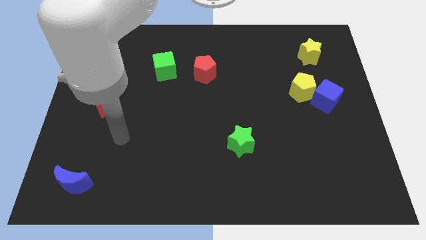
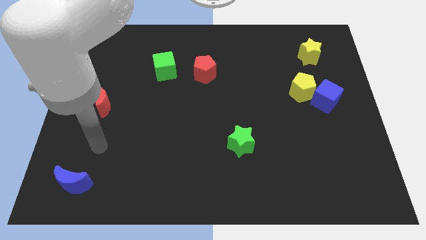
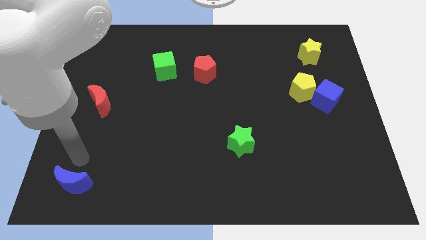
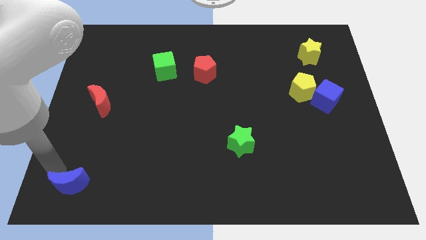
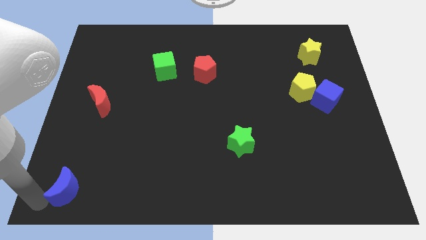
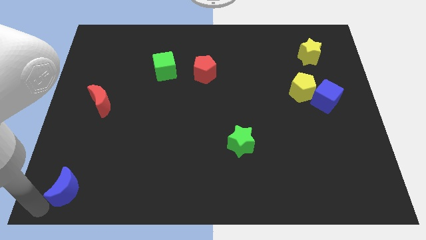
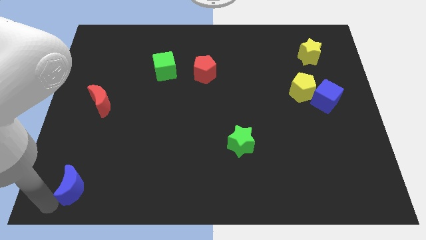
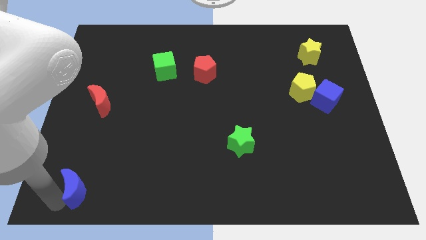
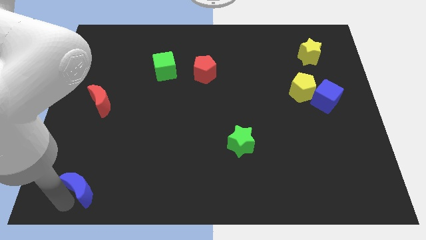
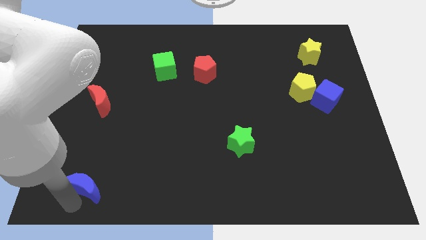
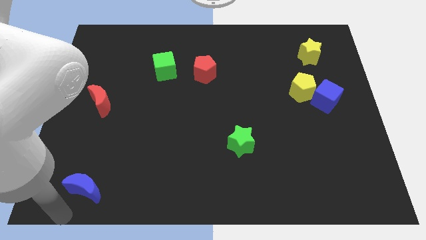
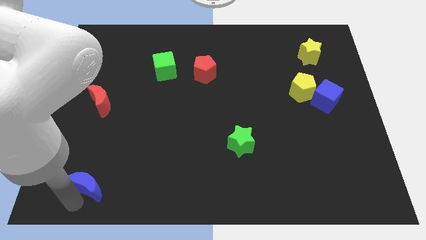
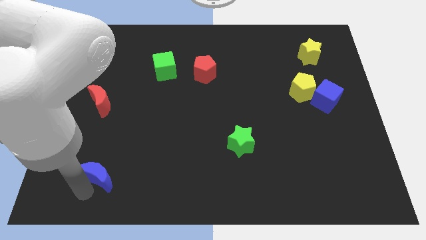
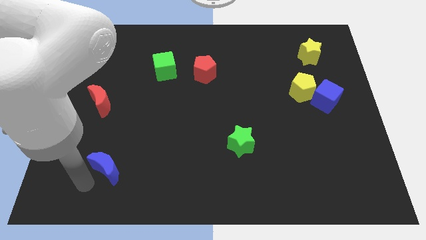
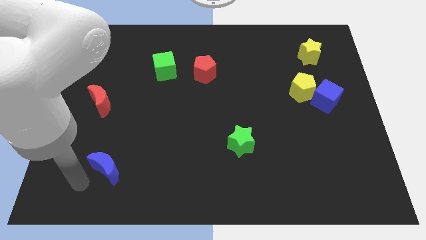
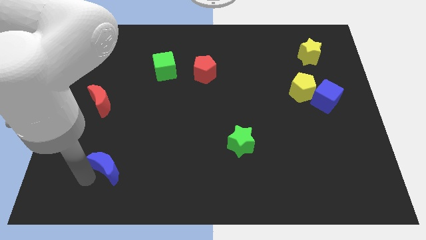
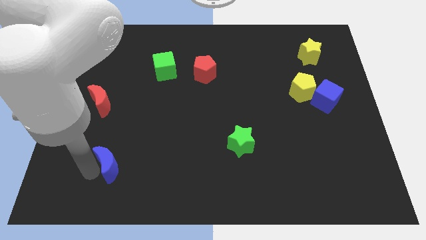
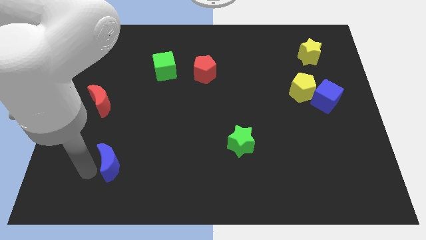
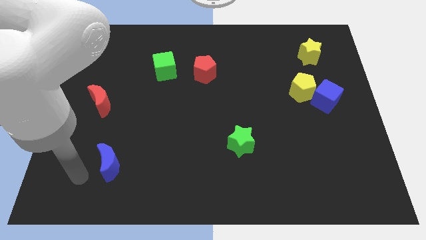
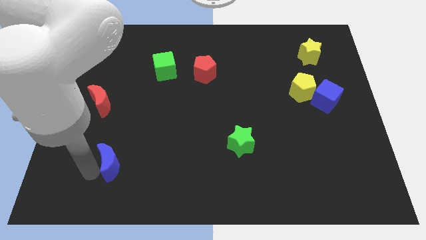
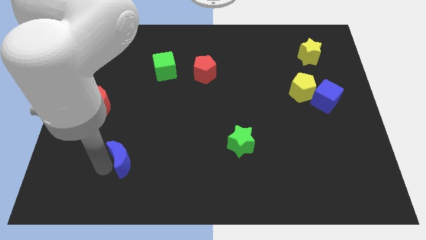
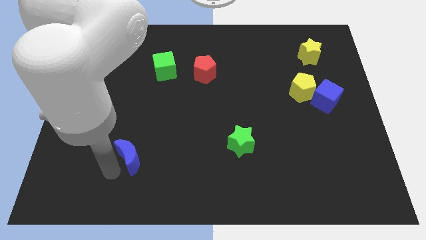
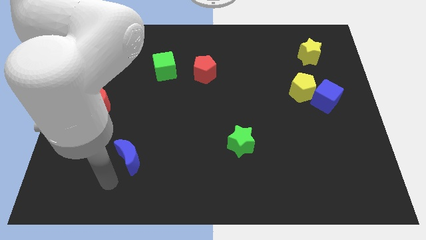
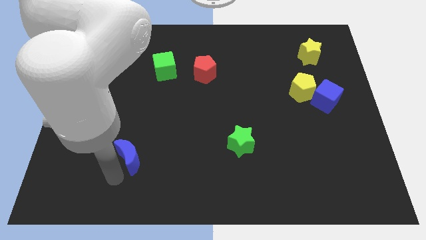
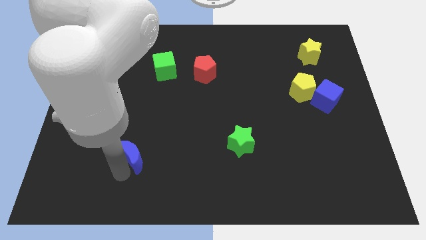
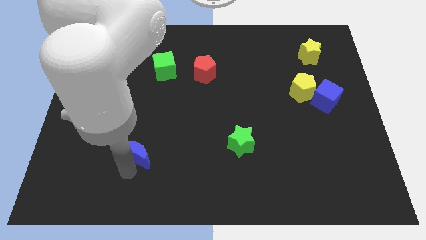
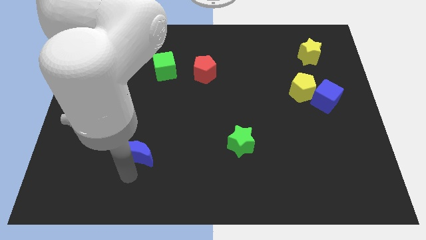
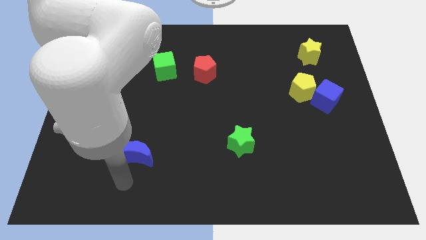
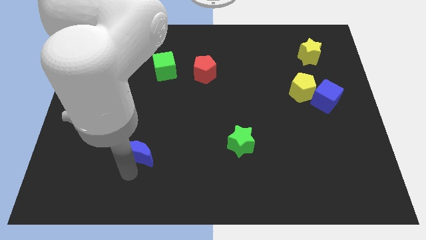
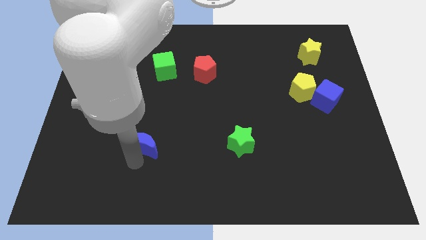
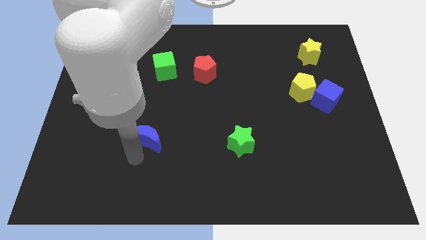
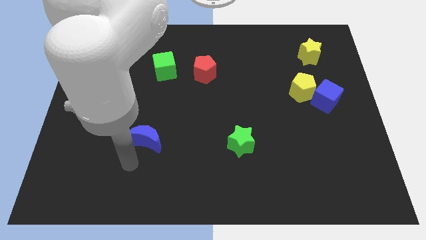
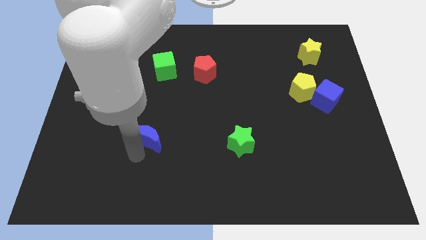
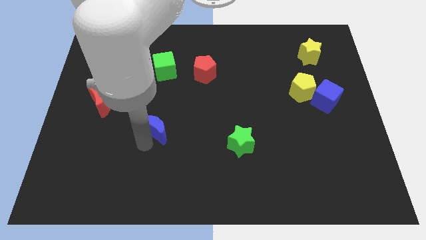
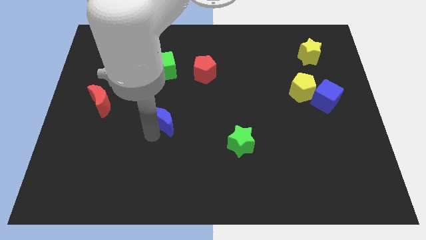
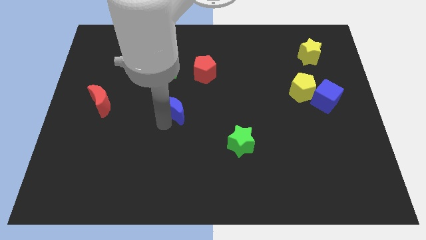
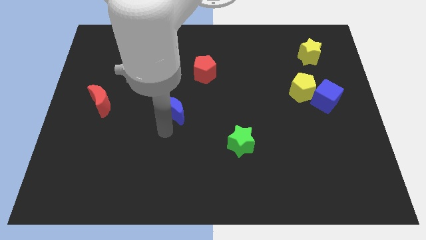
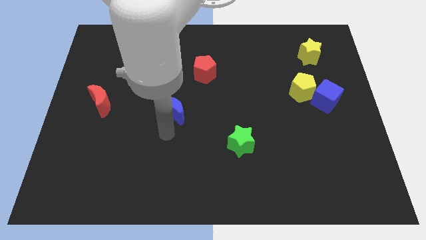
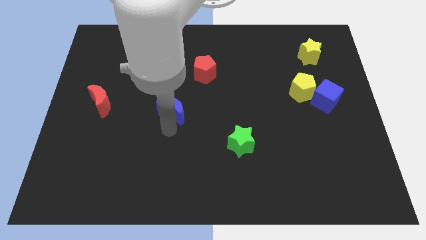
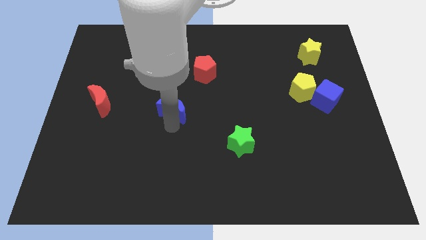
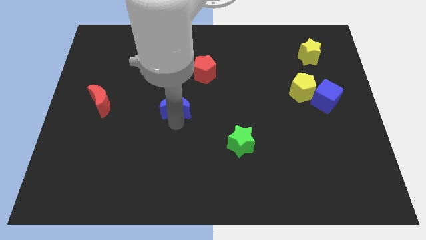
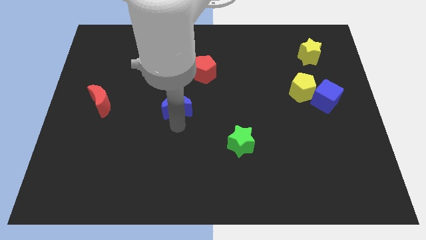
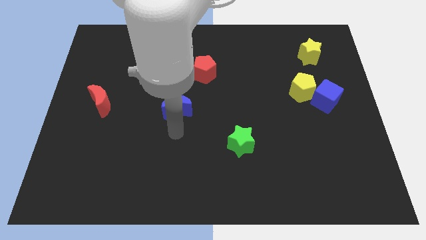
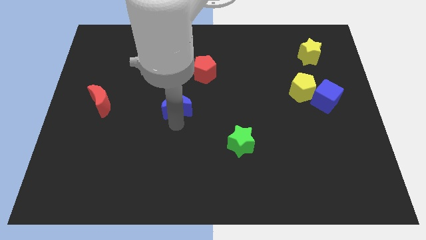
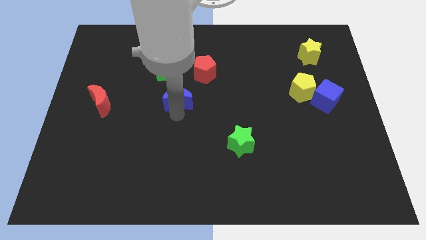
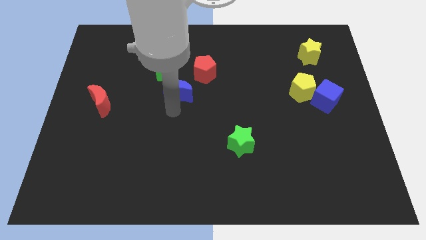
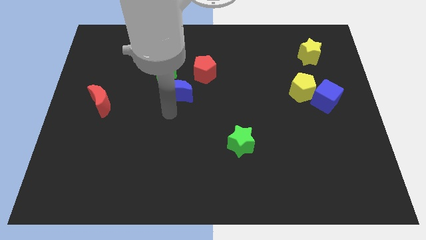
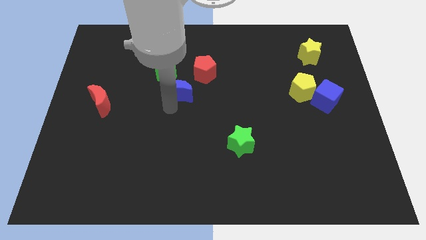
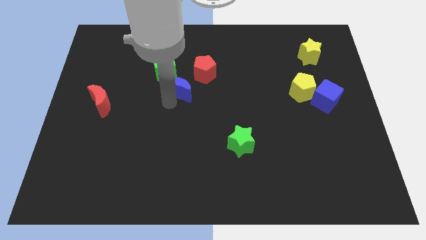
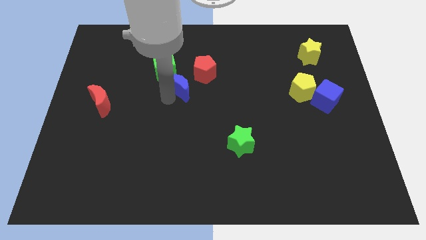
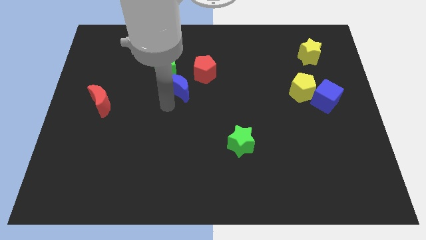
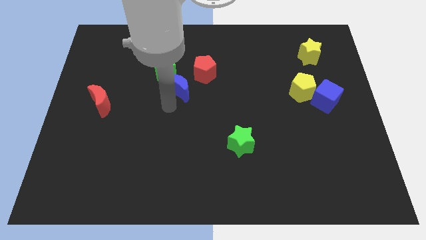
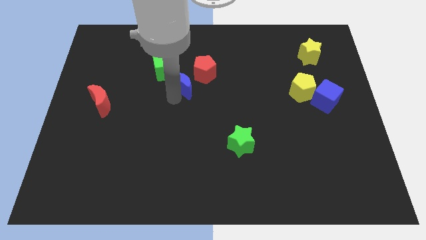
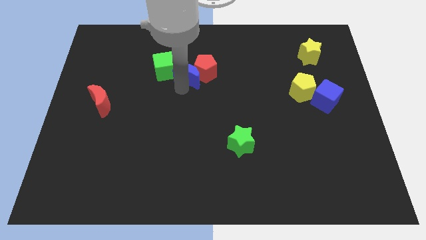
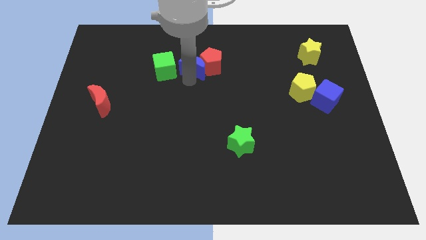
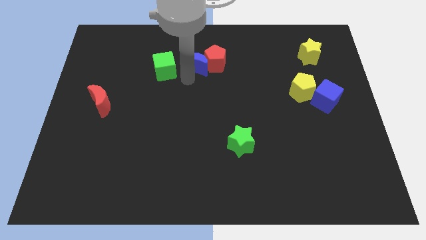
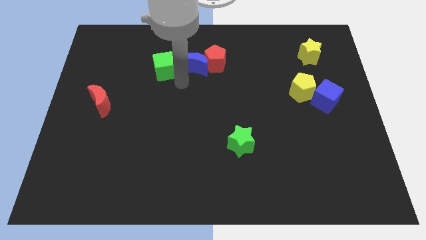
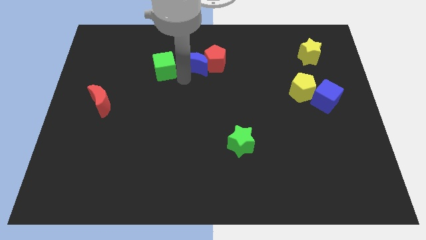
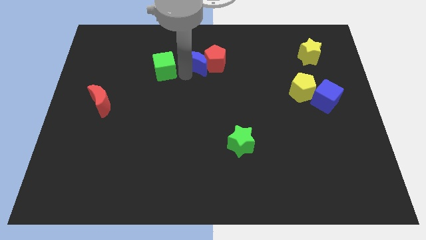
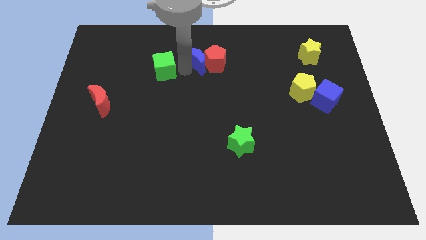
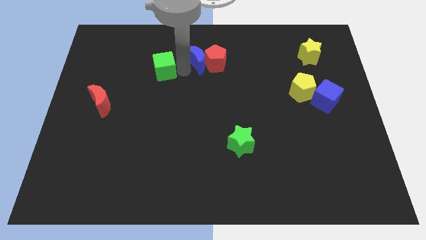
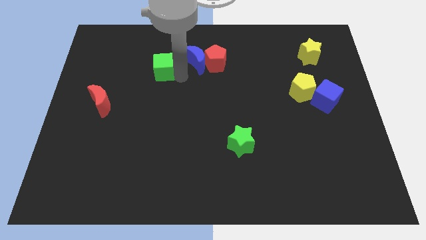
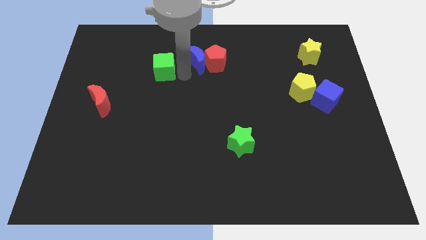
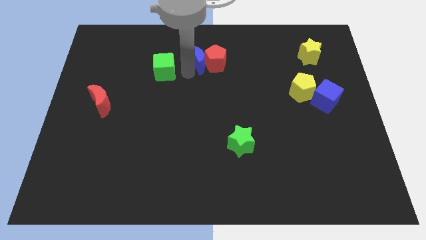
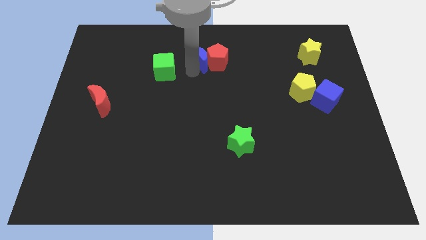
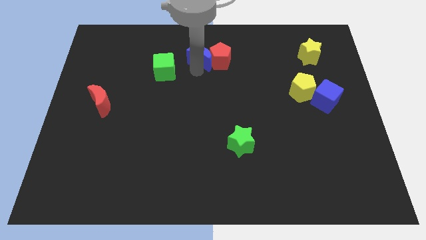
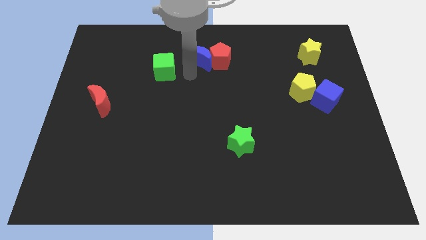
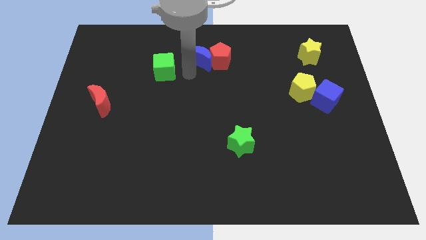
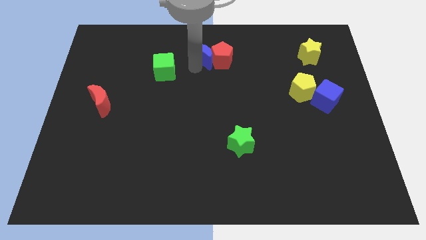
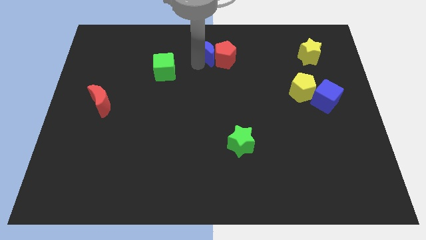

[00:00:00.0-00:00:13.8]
slide the blue moon to the top
